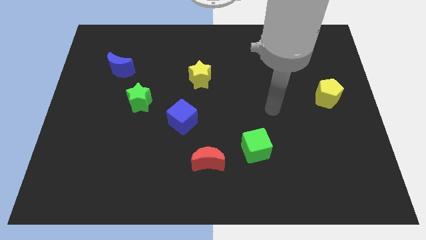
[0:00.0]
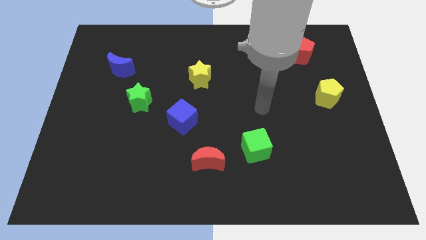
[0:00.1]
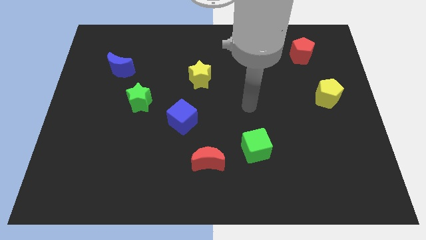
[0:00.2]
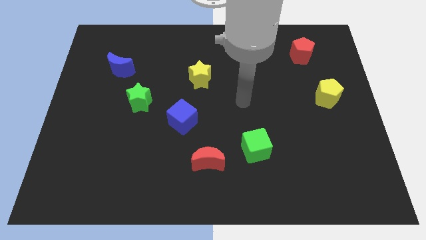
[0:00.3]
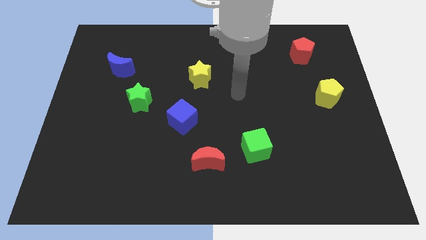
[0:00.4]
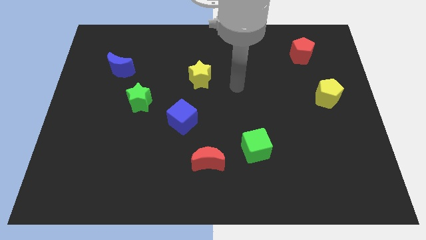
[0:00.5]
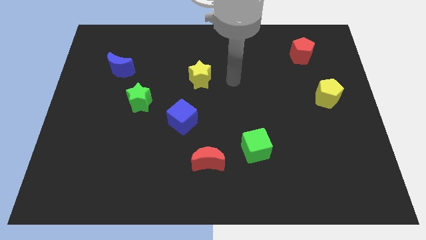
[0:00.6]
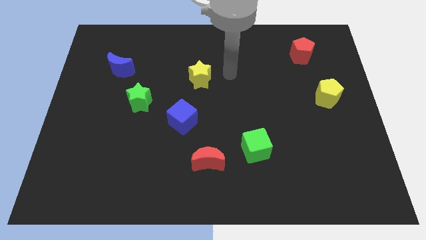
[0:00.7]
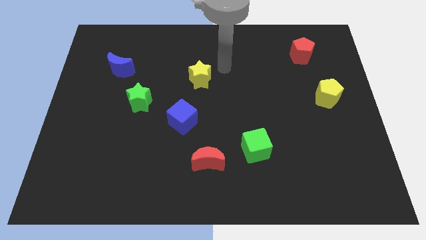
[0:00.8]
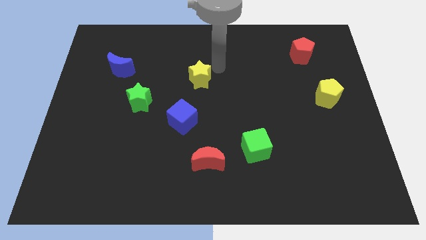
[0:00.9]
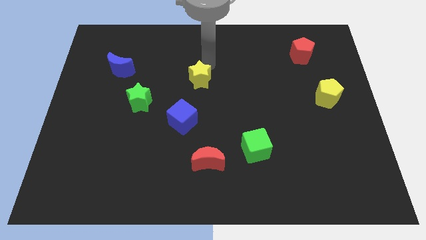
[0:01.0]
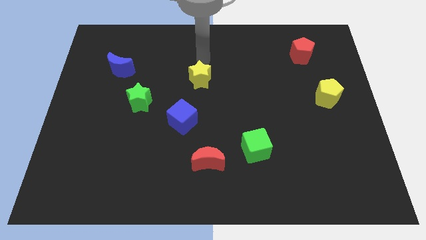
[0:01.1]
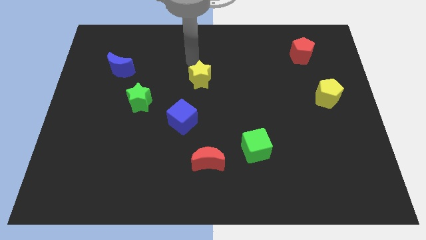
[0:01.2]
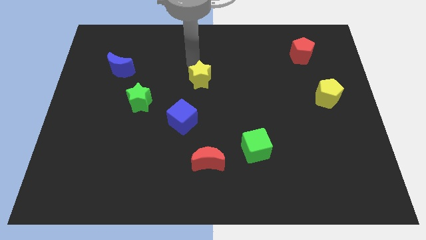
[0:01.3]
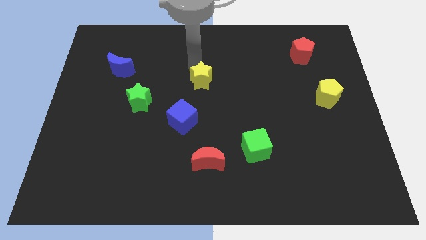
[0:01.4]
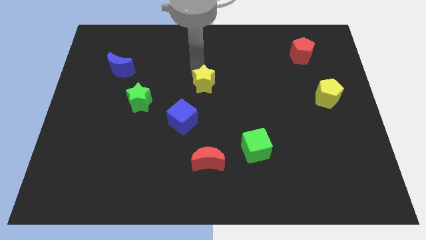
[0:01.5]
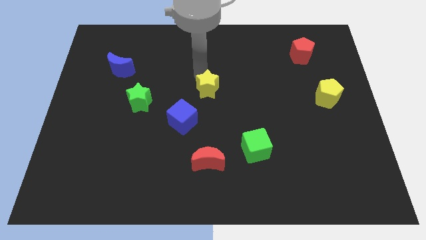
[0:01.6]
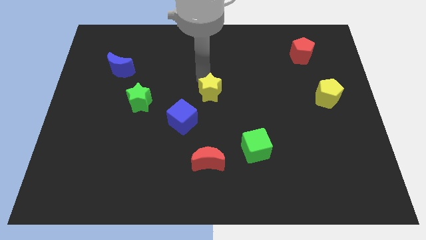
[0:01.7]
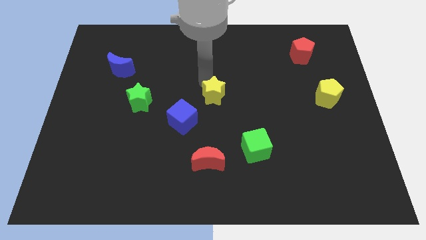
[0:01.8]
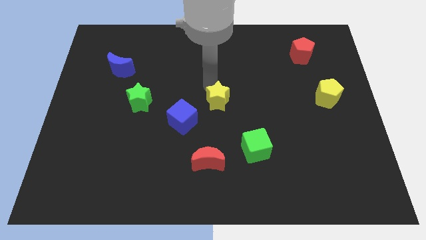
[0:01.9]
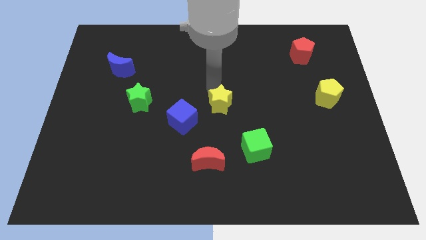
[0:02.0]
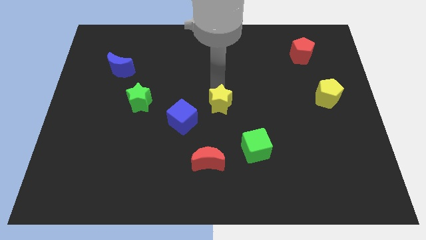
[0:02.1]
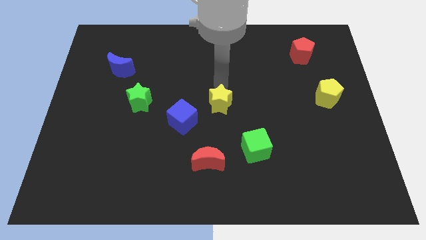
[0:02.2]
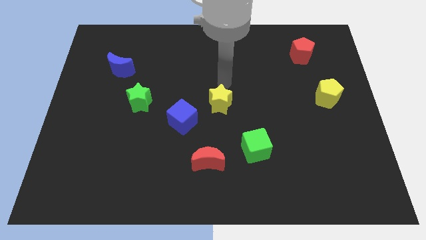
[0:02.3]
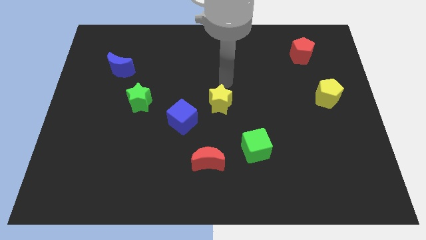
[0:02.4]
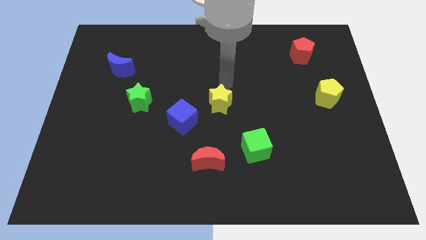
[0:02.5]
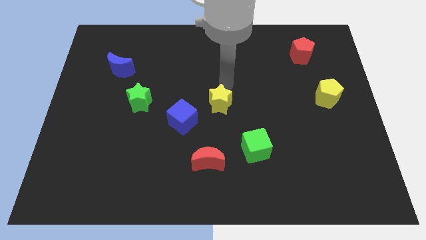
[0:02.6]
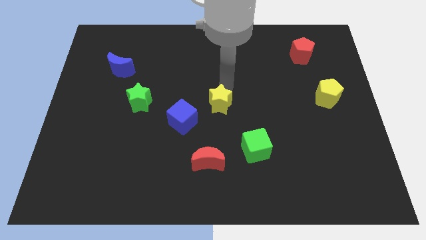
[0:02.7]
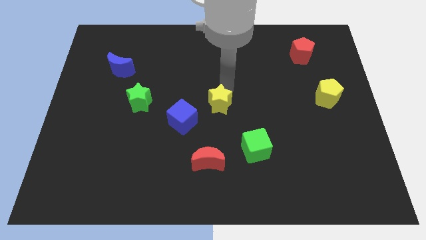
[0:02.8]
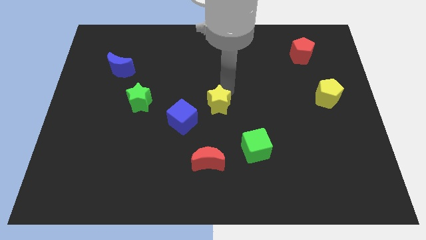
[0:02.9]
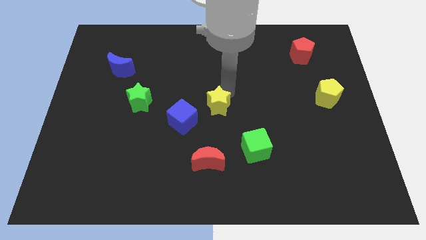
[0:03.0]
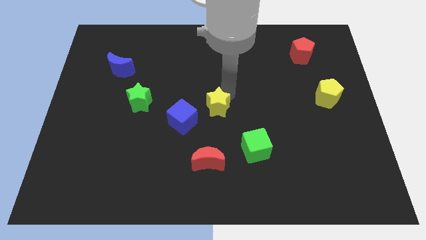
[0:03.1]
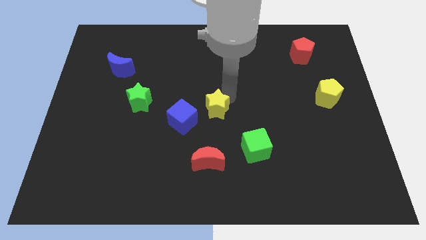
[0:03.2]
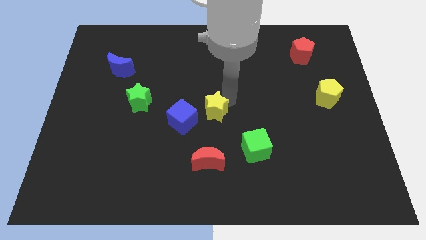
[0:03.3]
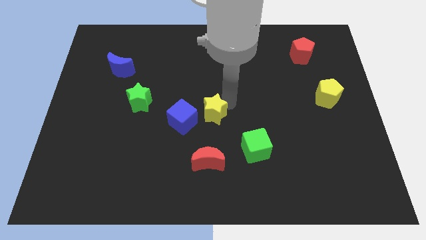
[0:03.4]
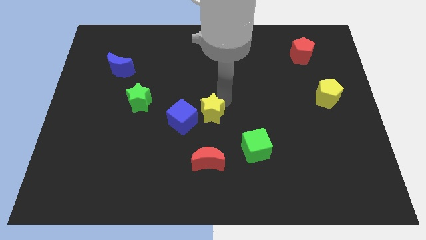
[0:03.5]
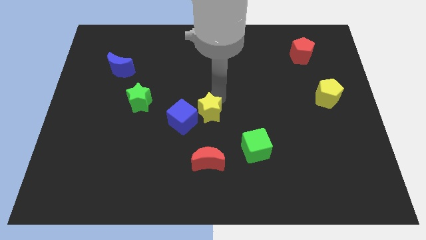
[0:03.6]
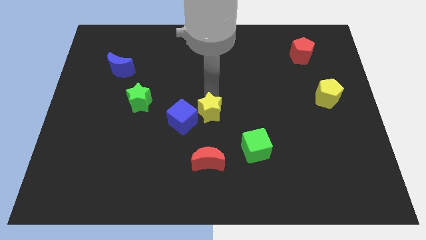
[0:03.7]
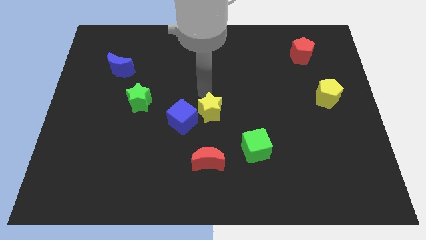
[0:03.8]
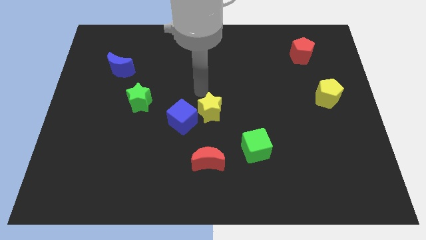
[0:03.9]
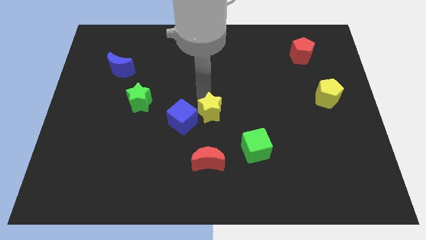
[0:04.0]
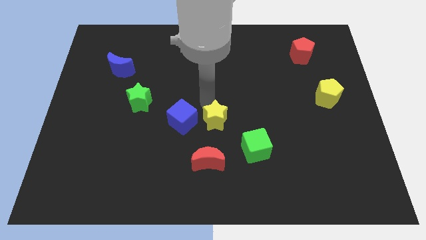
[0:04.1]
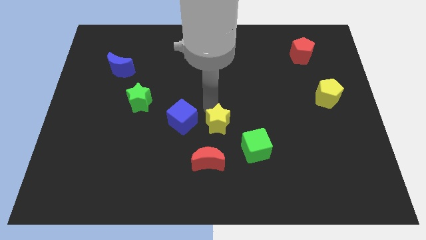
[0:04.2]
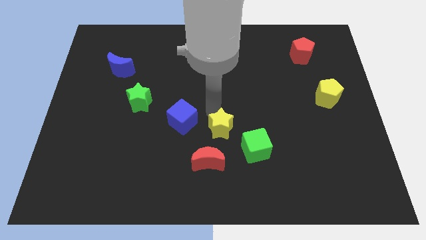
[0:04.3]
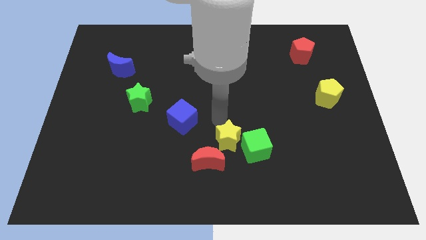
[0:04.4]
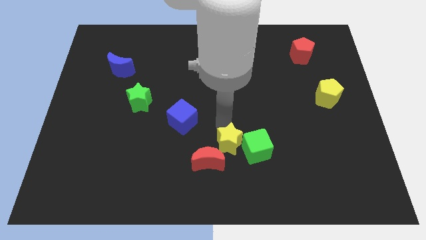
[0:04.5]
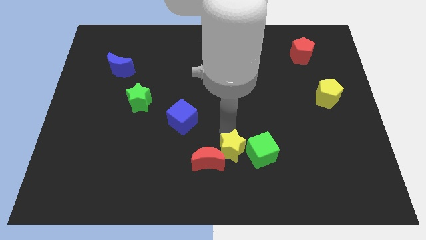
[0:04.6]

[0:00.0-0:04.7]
move the yellow star to the bottom left side of the green cube

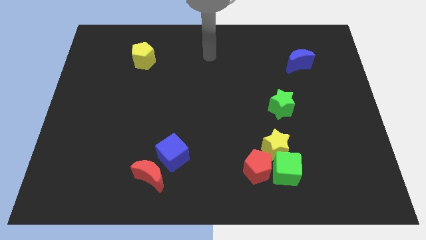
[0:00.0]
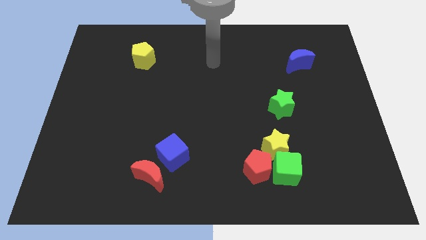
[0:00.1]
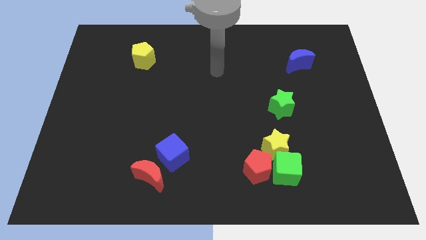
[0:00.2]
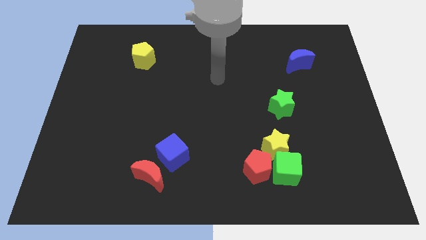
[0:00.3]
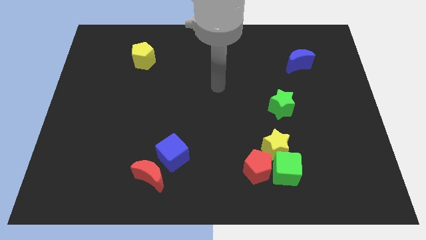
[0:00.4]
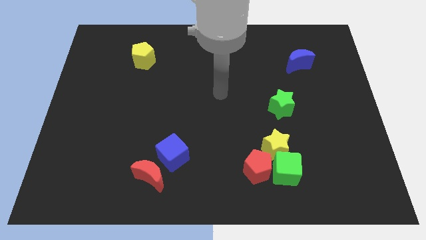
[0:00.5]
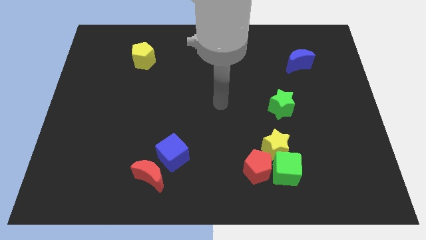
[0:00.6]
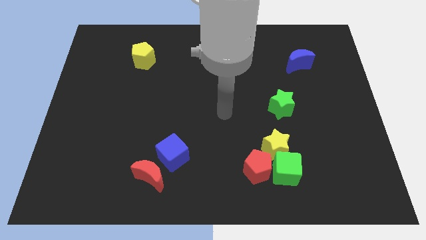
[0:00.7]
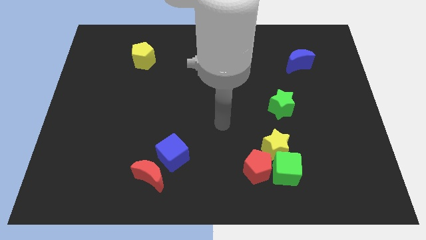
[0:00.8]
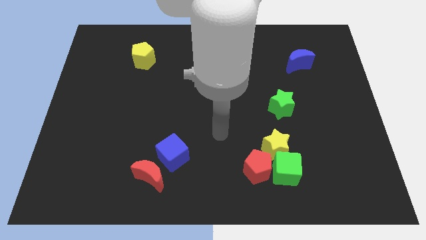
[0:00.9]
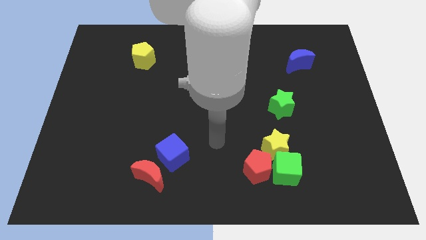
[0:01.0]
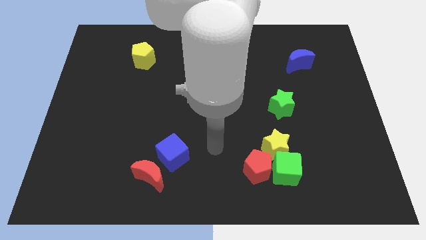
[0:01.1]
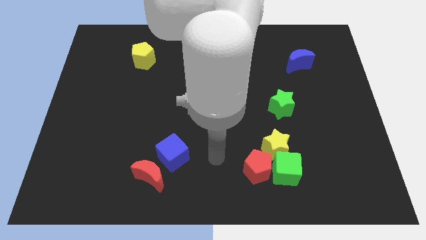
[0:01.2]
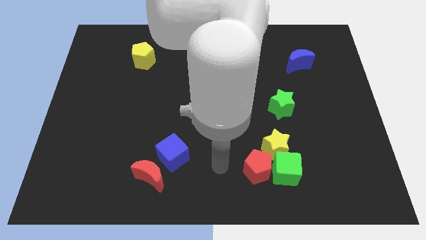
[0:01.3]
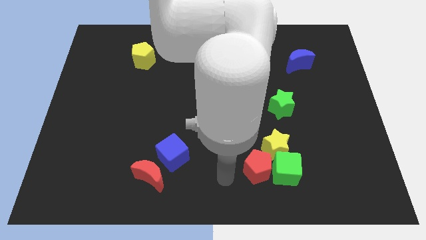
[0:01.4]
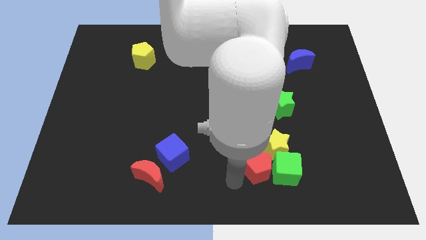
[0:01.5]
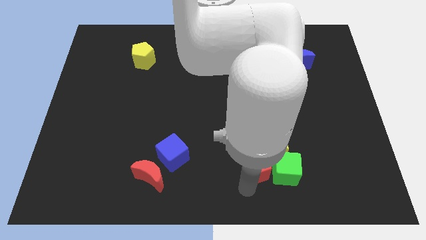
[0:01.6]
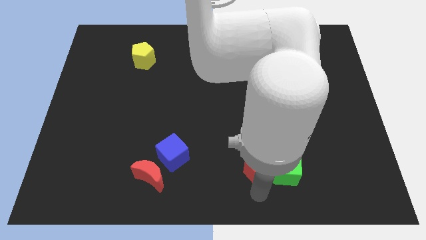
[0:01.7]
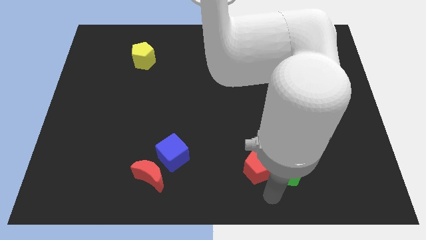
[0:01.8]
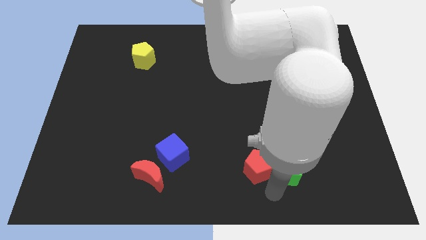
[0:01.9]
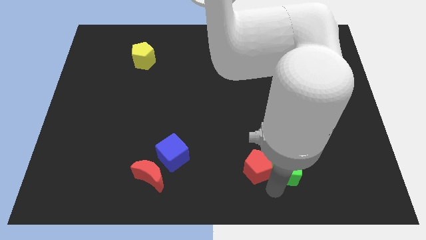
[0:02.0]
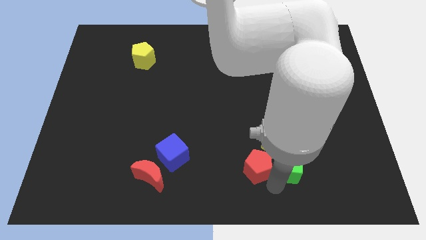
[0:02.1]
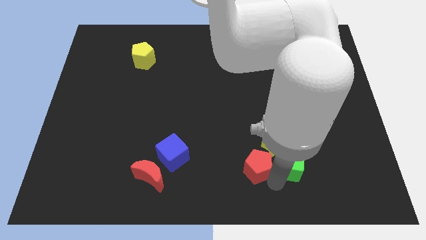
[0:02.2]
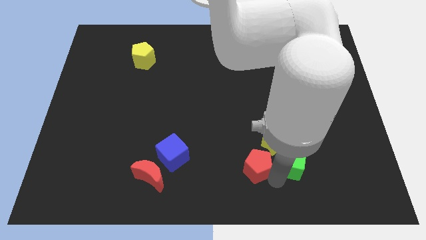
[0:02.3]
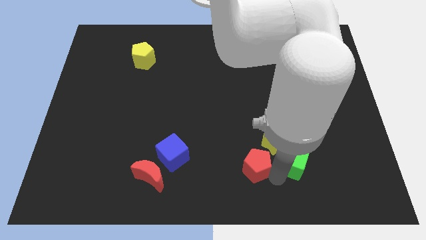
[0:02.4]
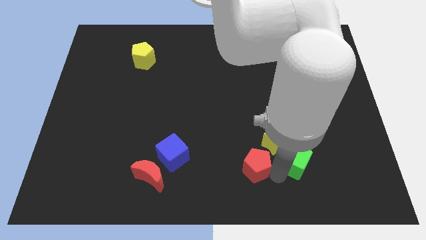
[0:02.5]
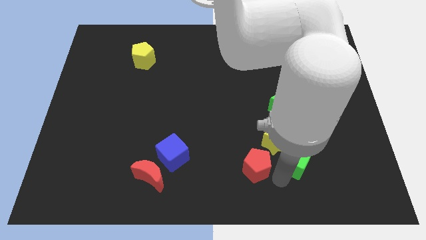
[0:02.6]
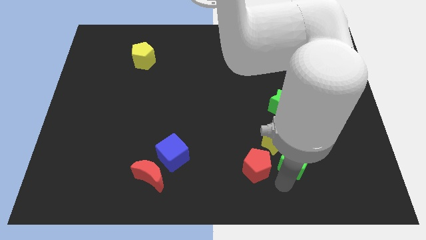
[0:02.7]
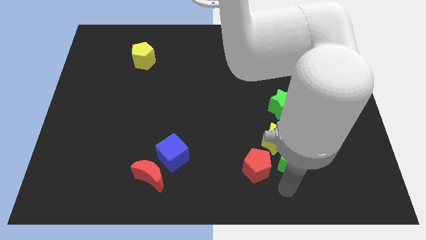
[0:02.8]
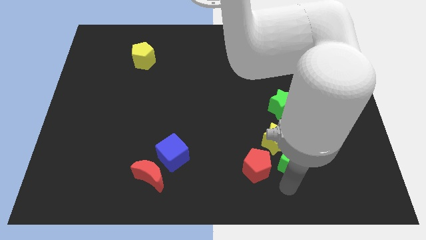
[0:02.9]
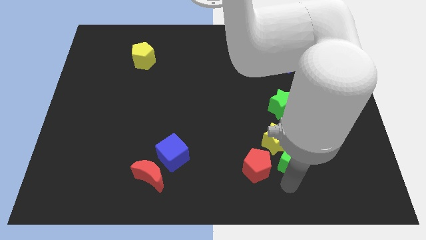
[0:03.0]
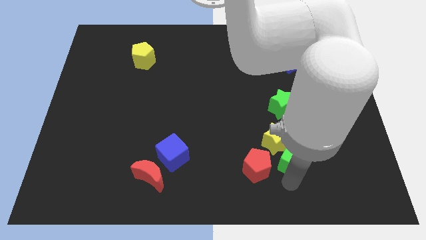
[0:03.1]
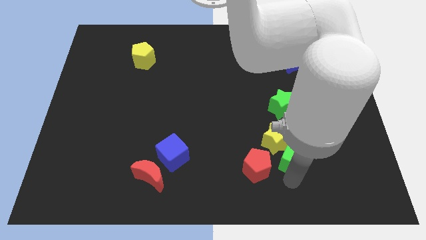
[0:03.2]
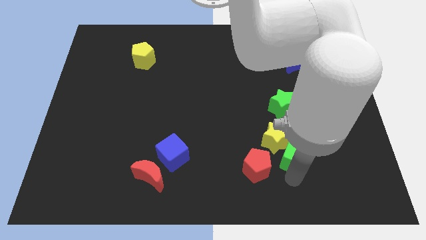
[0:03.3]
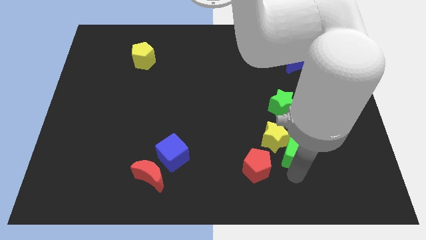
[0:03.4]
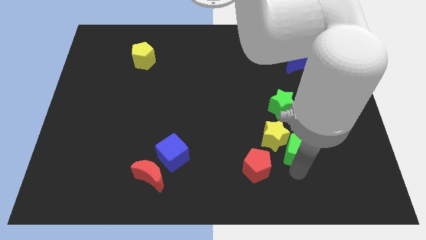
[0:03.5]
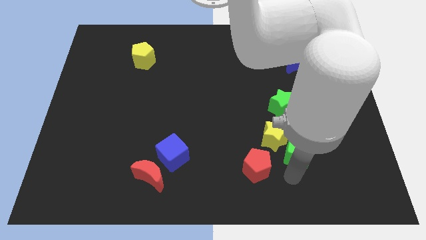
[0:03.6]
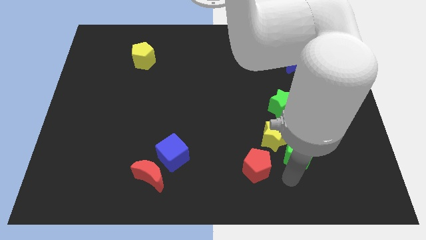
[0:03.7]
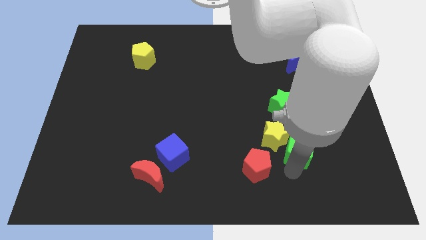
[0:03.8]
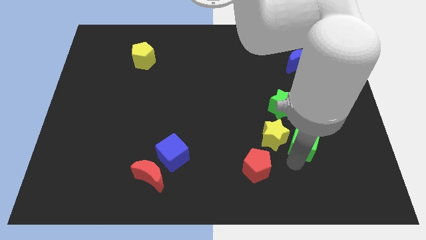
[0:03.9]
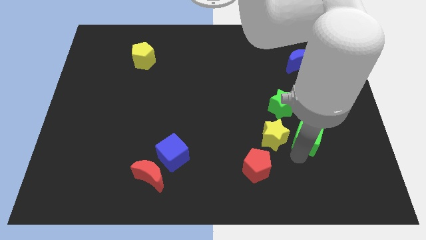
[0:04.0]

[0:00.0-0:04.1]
slide the green cube to the bottom right side of the green star
